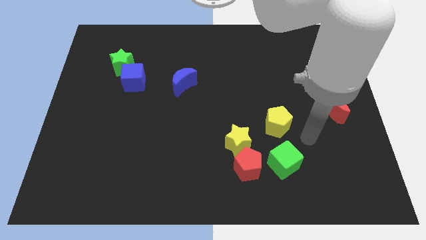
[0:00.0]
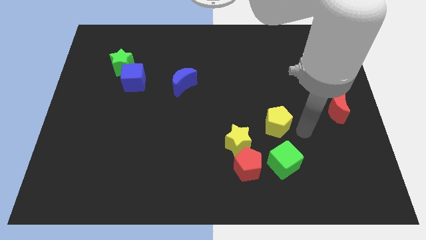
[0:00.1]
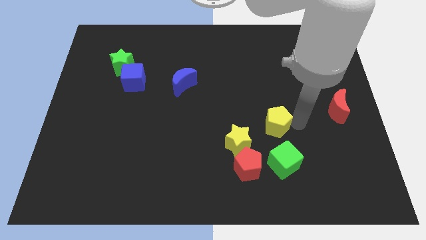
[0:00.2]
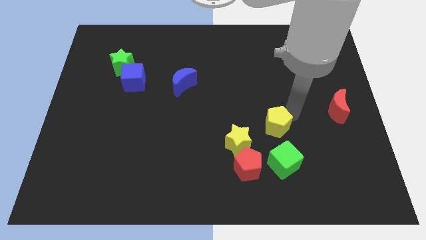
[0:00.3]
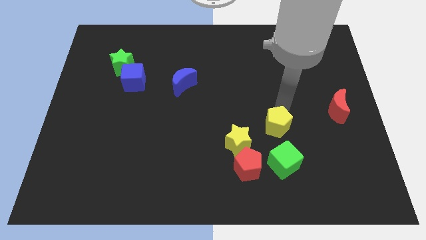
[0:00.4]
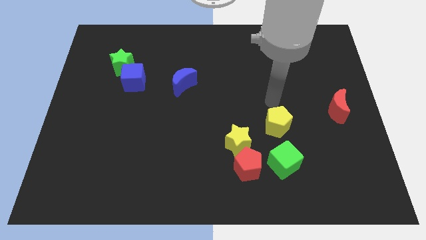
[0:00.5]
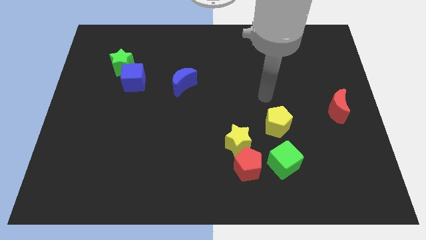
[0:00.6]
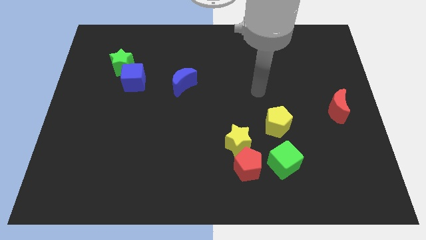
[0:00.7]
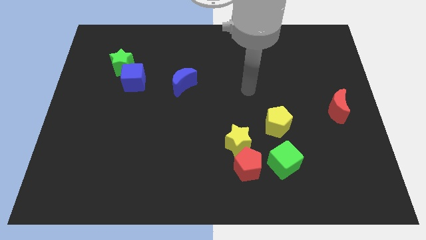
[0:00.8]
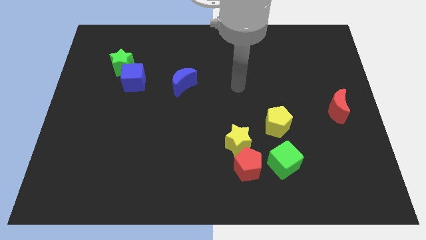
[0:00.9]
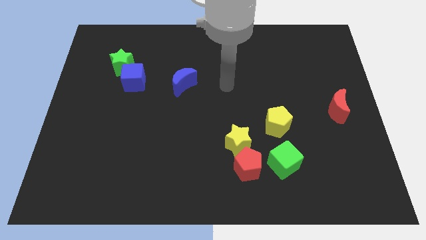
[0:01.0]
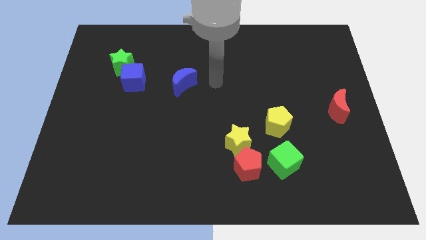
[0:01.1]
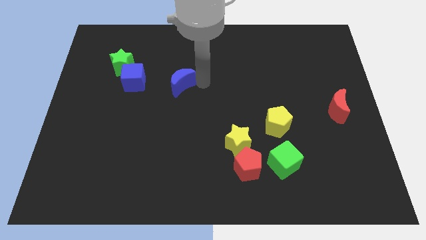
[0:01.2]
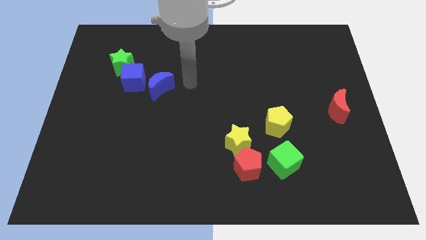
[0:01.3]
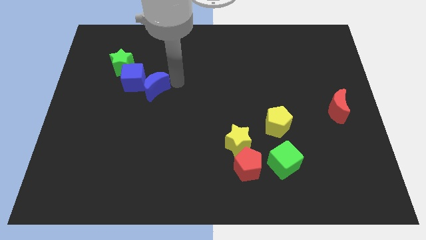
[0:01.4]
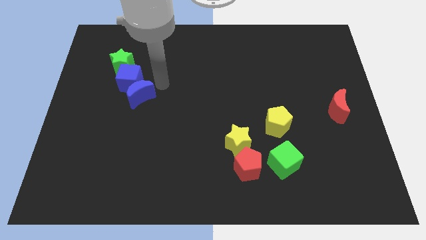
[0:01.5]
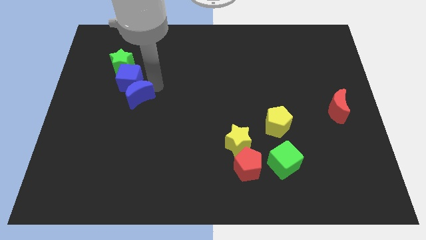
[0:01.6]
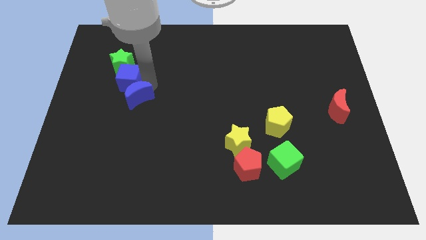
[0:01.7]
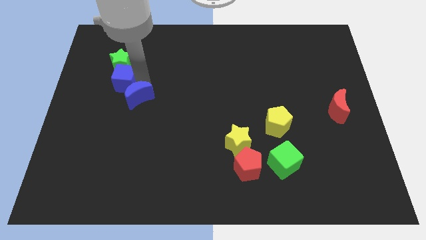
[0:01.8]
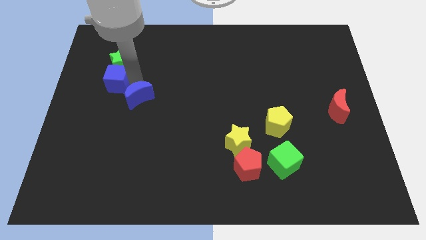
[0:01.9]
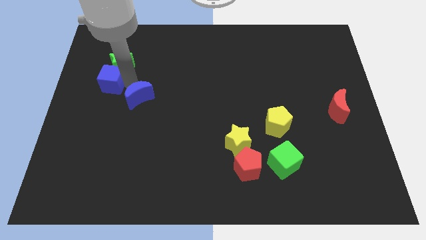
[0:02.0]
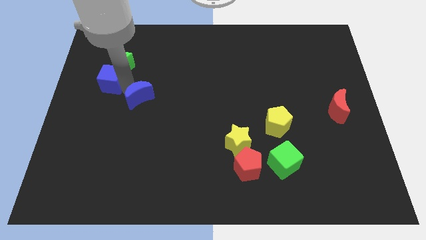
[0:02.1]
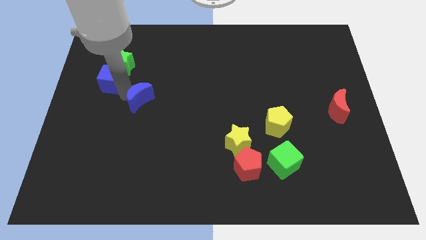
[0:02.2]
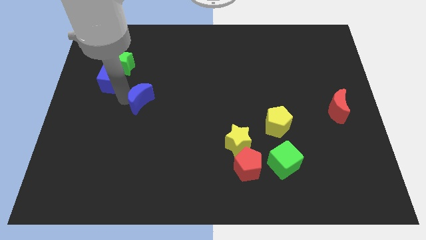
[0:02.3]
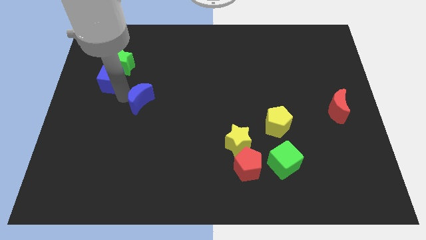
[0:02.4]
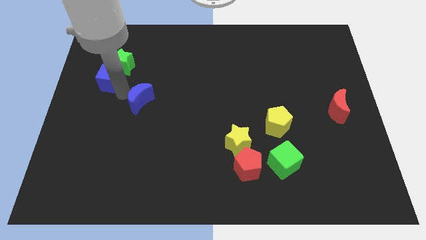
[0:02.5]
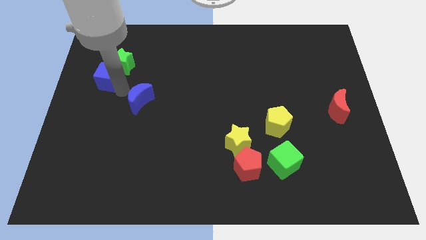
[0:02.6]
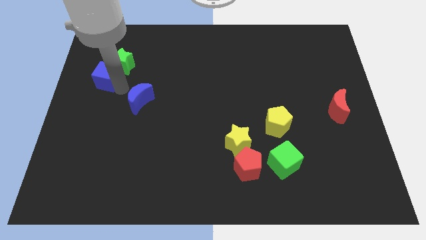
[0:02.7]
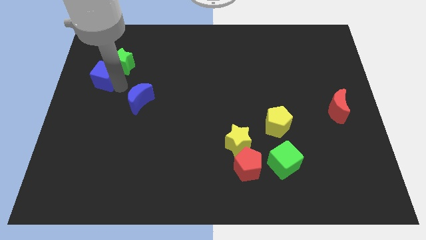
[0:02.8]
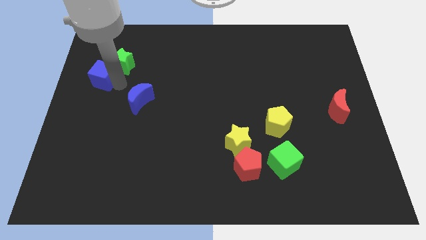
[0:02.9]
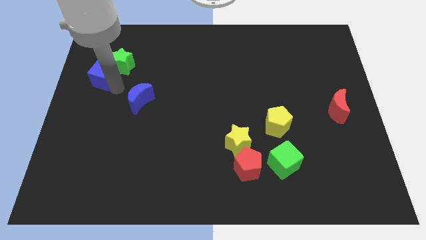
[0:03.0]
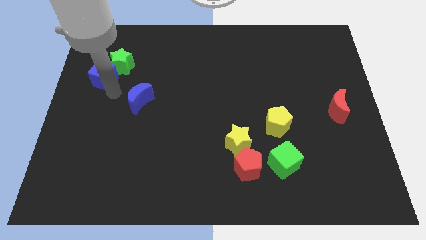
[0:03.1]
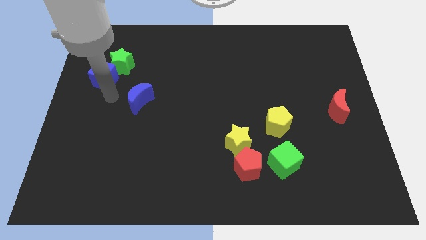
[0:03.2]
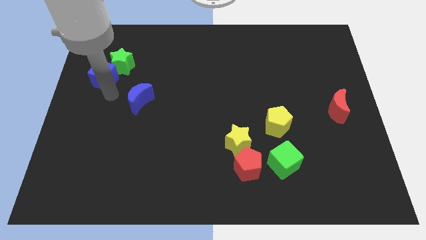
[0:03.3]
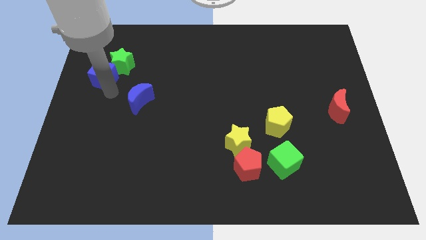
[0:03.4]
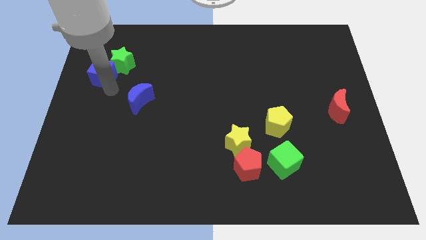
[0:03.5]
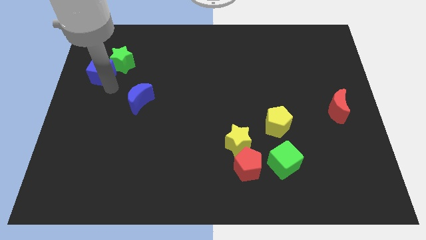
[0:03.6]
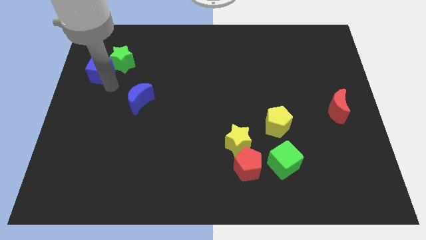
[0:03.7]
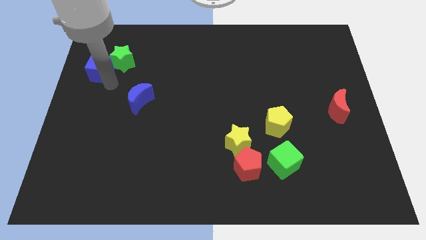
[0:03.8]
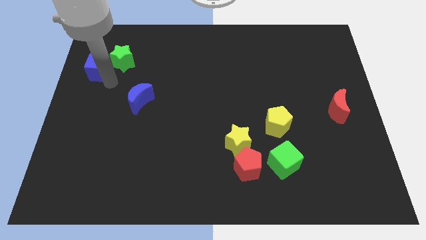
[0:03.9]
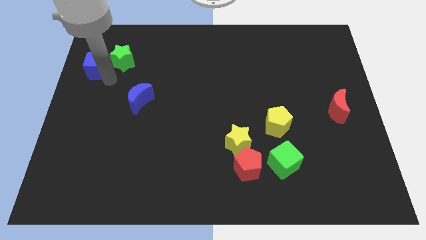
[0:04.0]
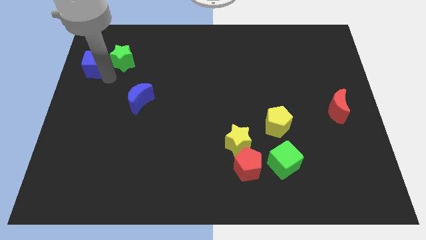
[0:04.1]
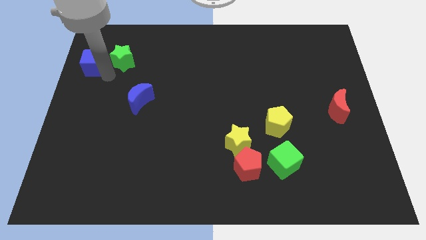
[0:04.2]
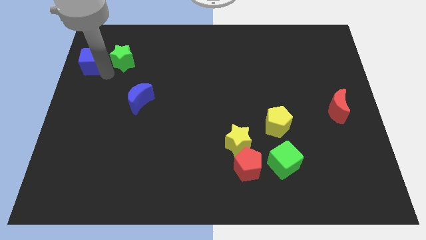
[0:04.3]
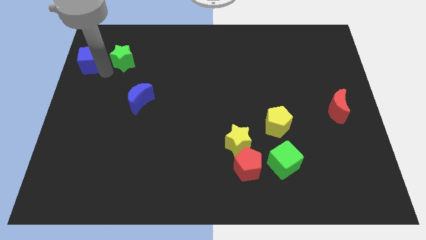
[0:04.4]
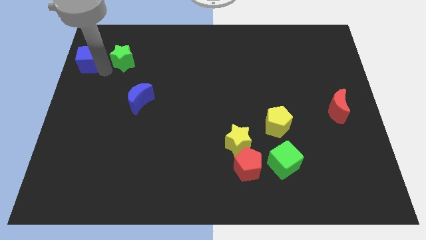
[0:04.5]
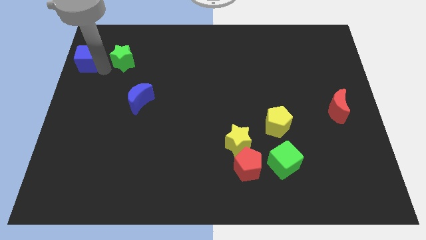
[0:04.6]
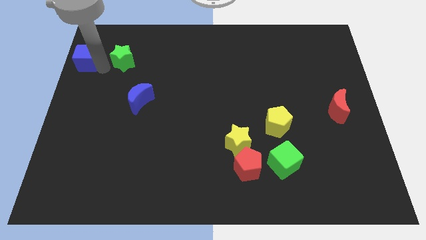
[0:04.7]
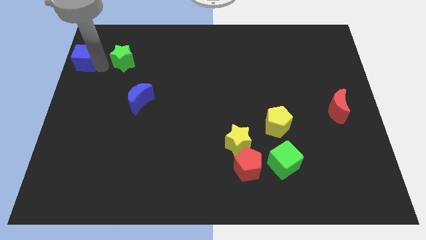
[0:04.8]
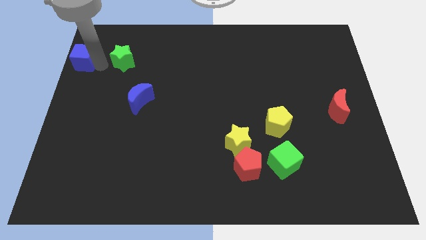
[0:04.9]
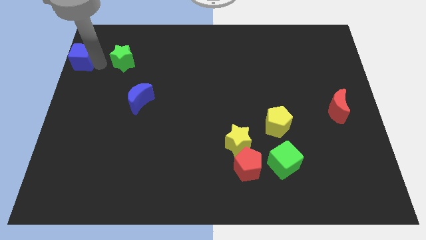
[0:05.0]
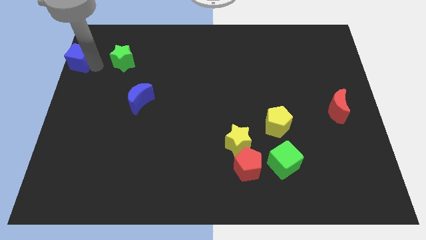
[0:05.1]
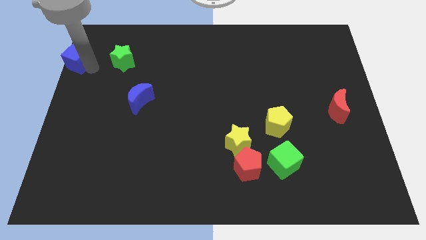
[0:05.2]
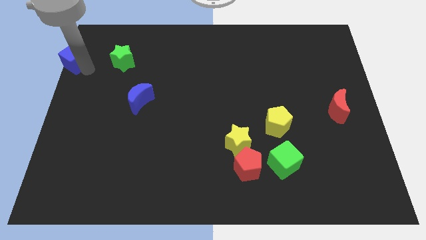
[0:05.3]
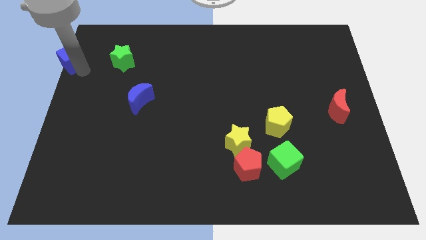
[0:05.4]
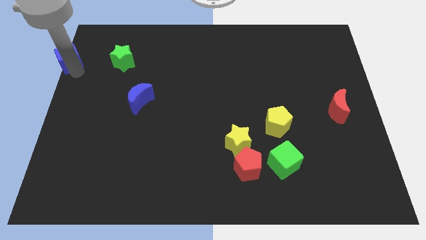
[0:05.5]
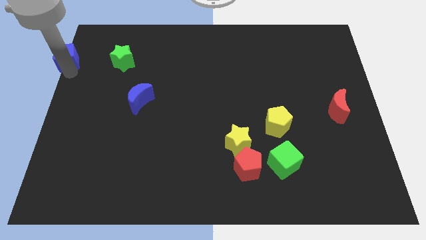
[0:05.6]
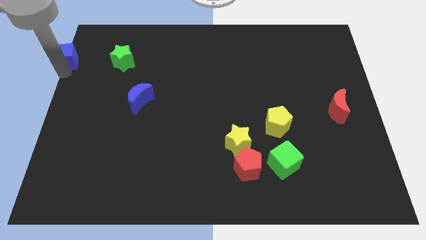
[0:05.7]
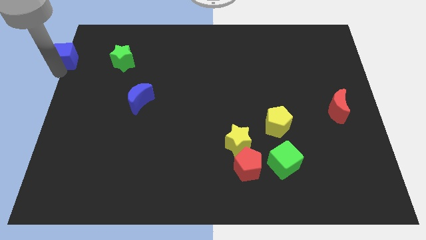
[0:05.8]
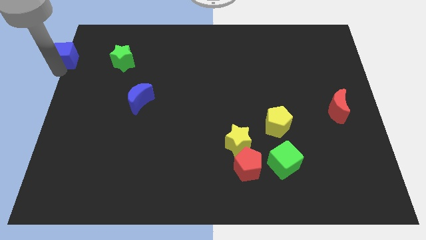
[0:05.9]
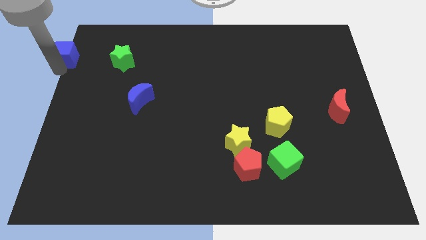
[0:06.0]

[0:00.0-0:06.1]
put the blue cube to the top left corner

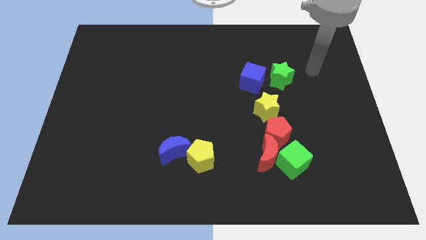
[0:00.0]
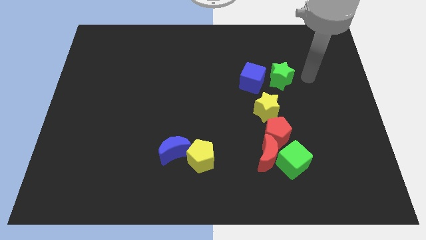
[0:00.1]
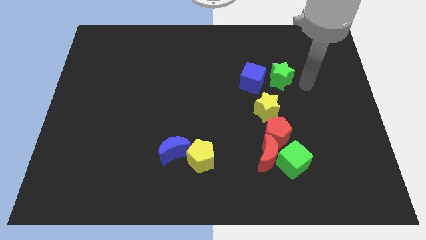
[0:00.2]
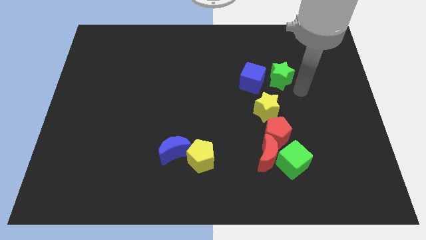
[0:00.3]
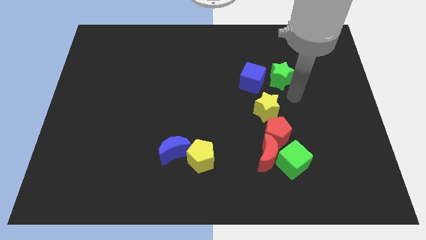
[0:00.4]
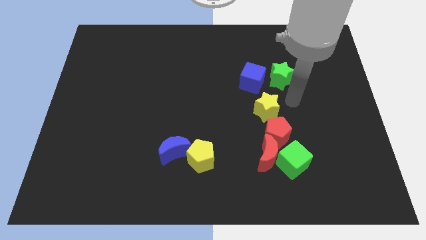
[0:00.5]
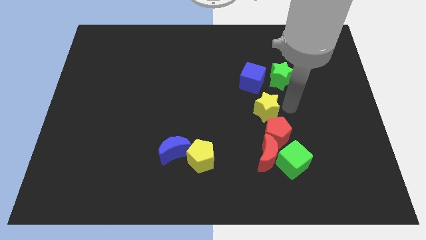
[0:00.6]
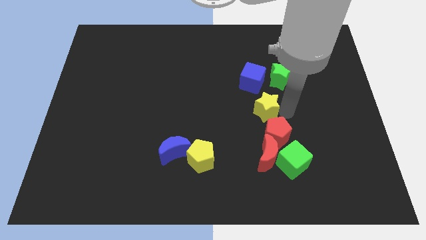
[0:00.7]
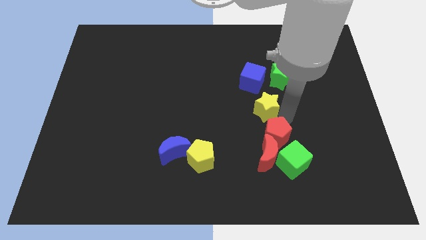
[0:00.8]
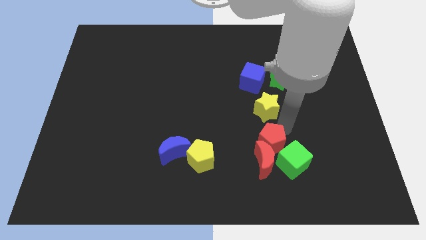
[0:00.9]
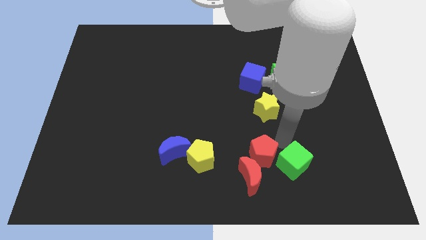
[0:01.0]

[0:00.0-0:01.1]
move the red moon to the bottom
